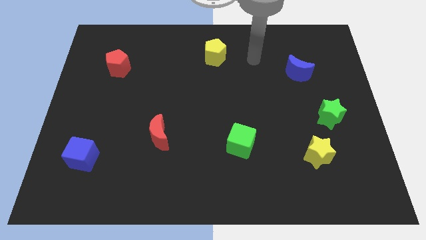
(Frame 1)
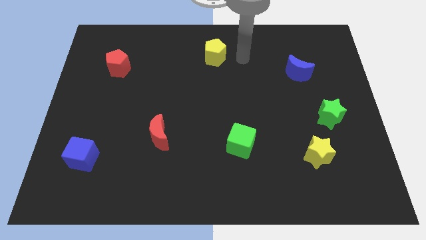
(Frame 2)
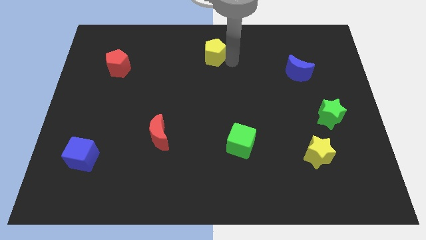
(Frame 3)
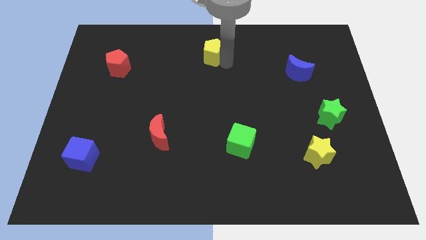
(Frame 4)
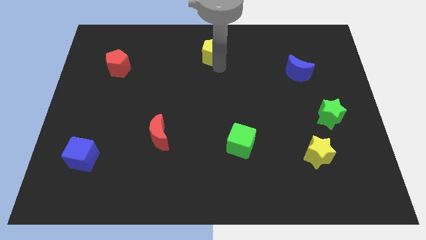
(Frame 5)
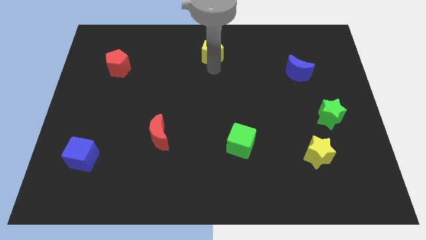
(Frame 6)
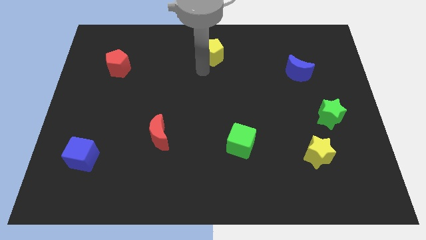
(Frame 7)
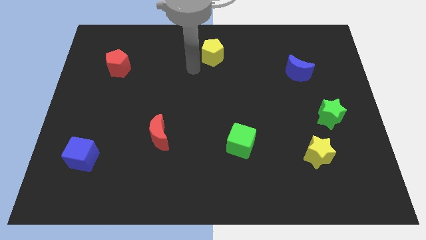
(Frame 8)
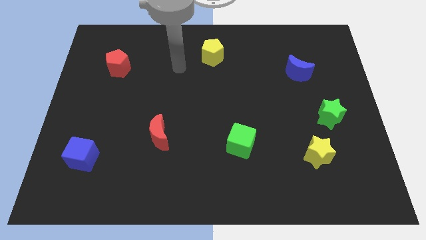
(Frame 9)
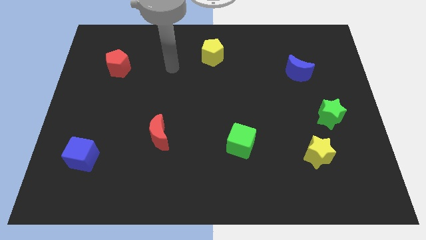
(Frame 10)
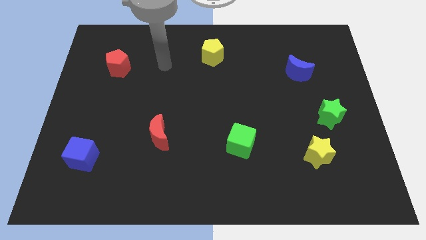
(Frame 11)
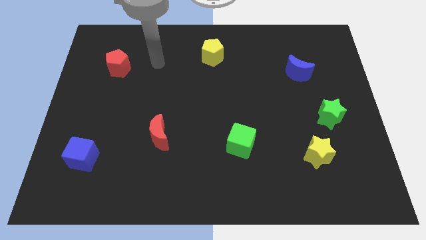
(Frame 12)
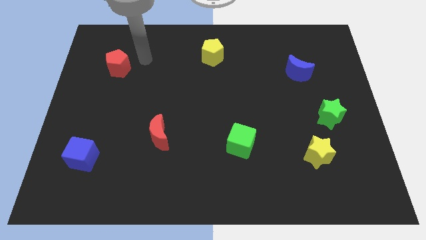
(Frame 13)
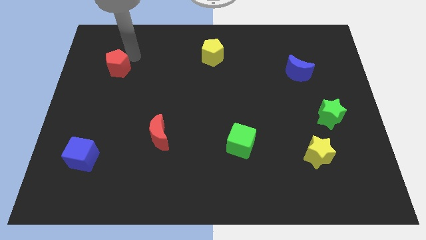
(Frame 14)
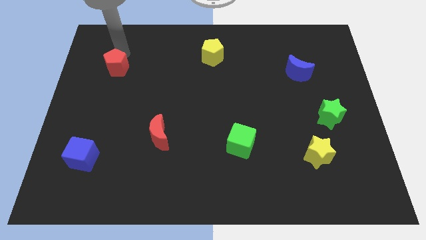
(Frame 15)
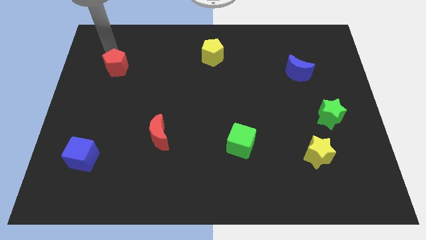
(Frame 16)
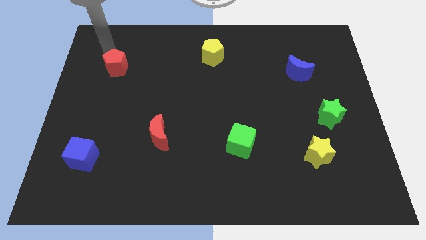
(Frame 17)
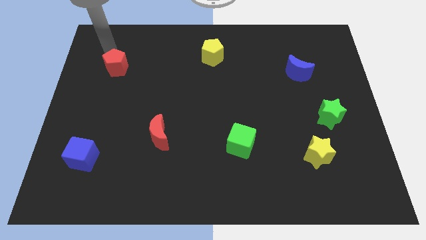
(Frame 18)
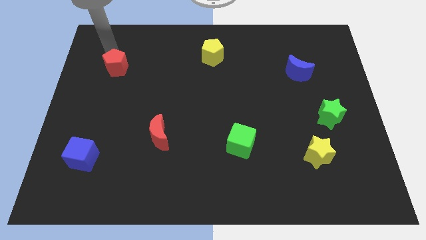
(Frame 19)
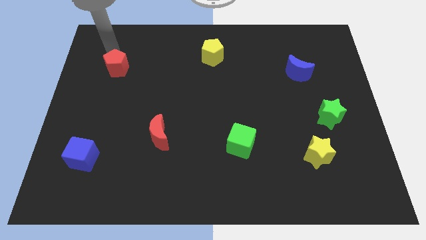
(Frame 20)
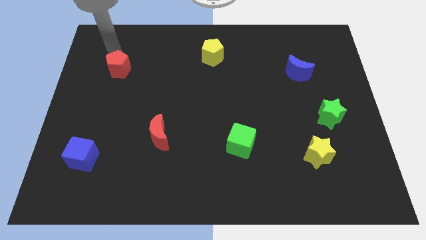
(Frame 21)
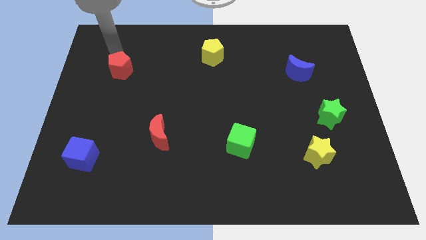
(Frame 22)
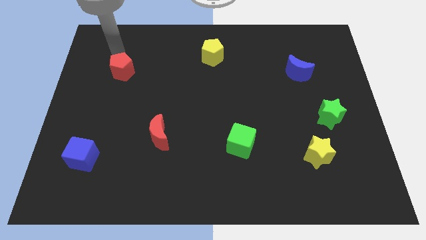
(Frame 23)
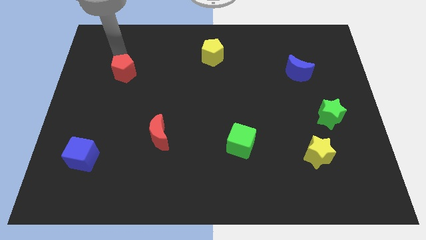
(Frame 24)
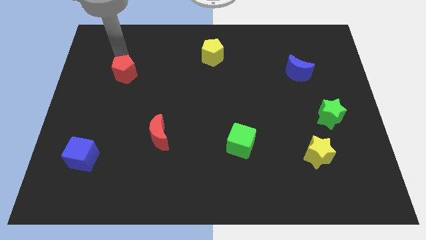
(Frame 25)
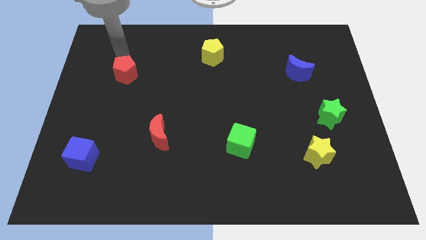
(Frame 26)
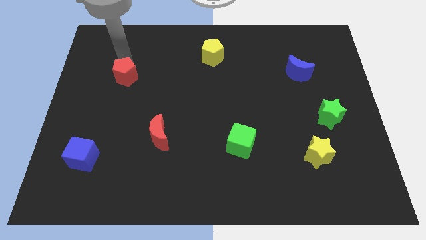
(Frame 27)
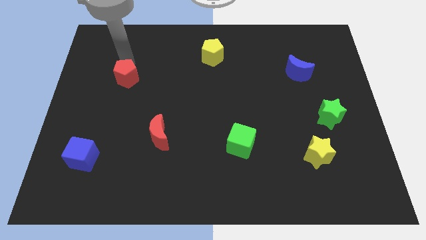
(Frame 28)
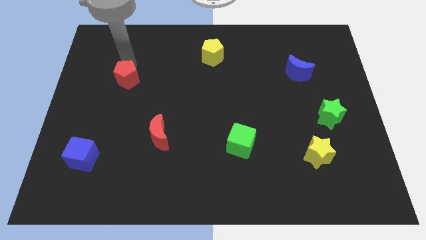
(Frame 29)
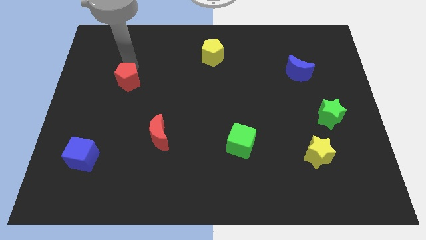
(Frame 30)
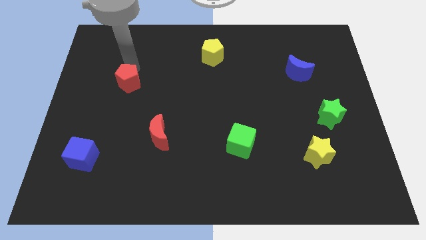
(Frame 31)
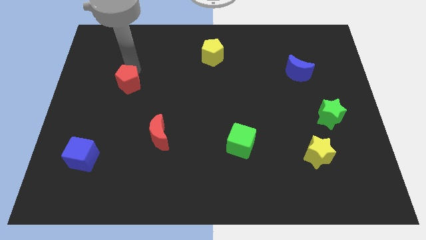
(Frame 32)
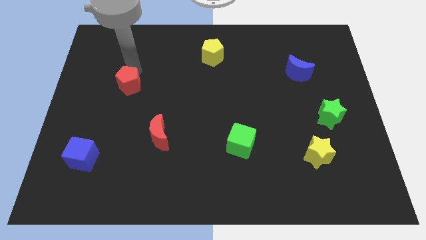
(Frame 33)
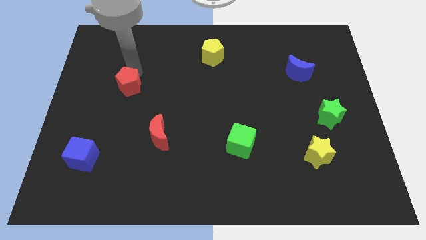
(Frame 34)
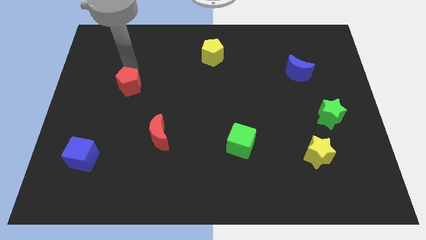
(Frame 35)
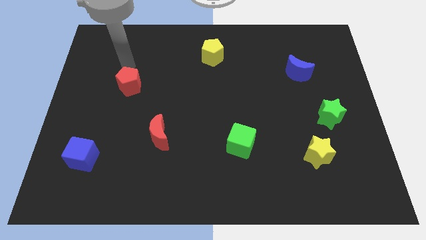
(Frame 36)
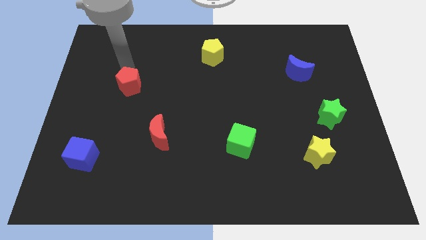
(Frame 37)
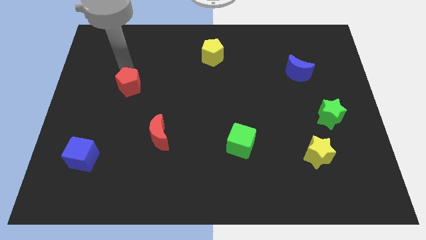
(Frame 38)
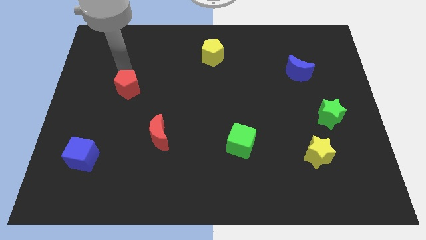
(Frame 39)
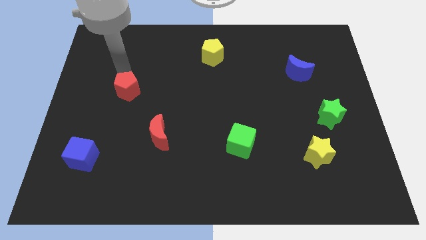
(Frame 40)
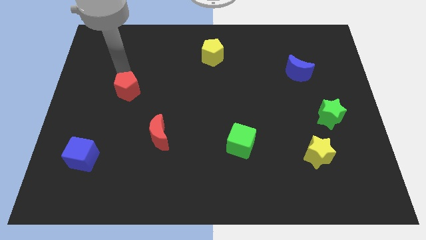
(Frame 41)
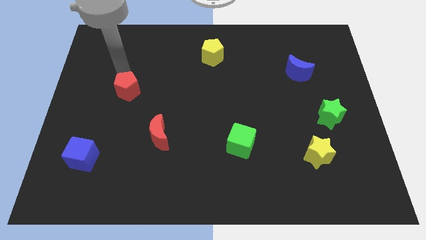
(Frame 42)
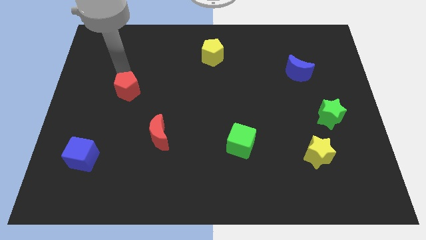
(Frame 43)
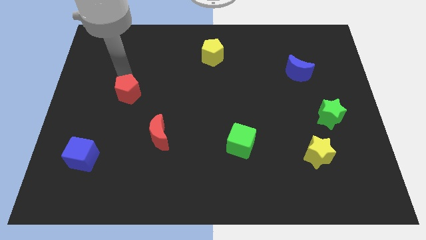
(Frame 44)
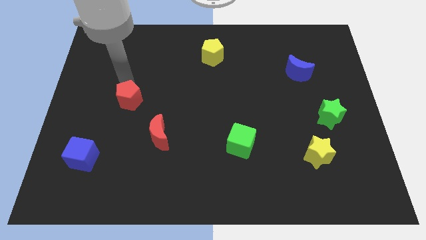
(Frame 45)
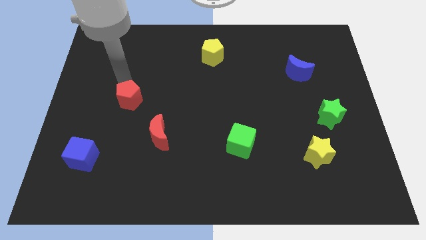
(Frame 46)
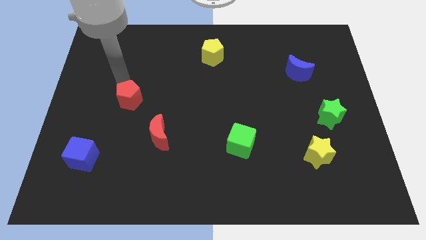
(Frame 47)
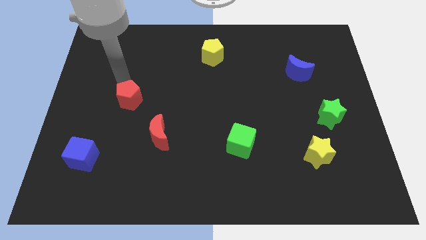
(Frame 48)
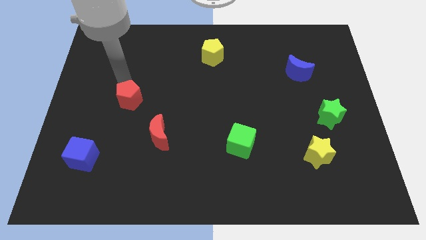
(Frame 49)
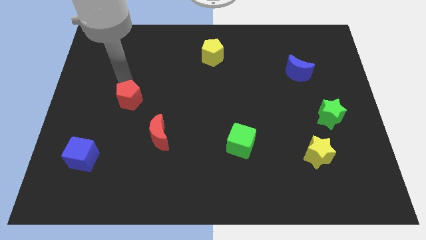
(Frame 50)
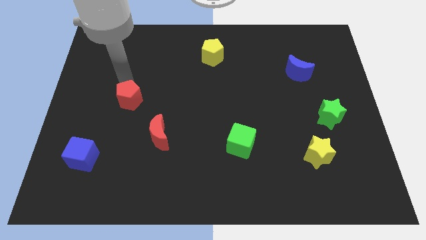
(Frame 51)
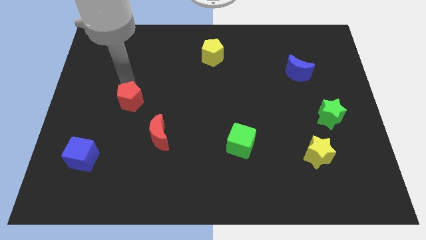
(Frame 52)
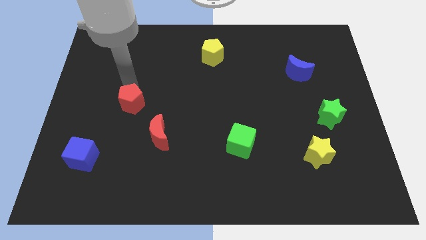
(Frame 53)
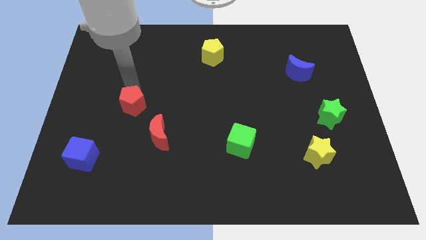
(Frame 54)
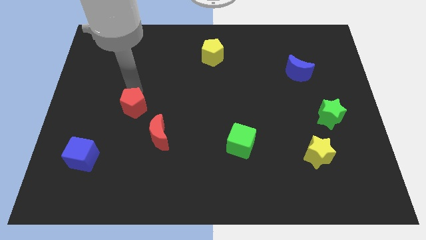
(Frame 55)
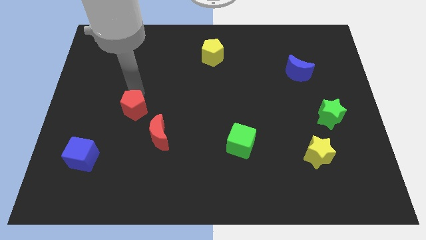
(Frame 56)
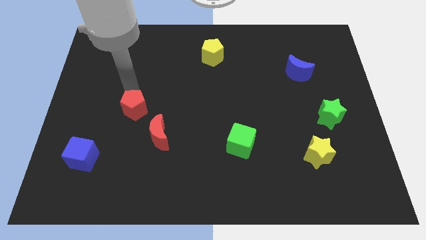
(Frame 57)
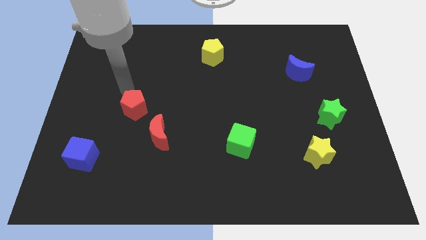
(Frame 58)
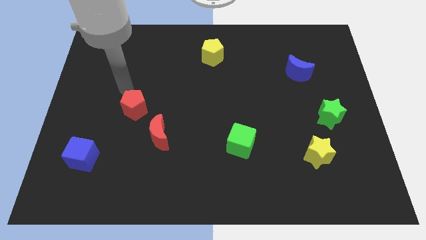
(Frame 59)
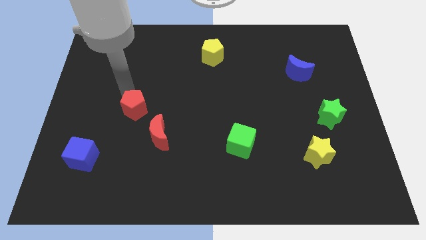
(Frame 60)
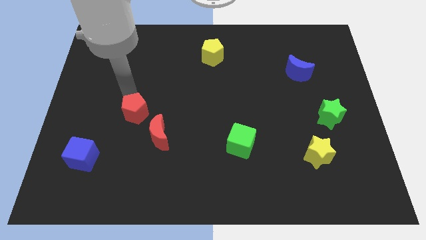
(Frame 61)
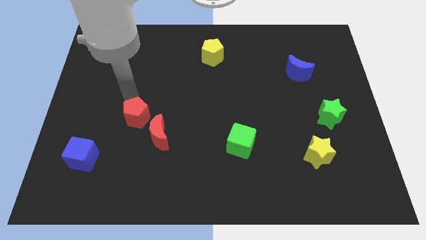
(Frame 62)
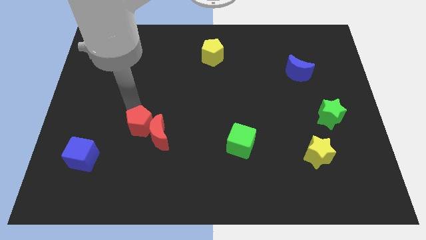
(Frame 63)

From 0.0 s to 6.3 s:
move the red pentagon close to the red moon
